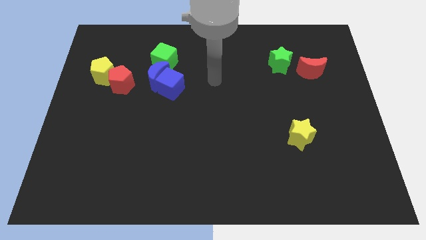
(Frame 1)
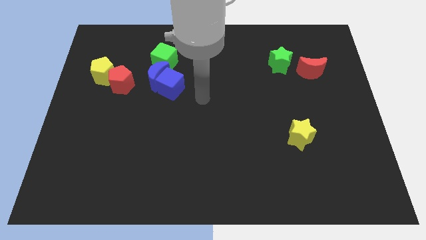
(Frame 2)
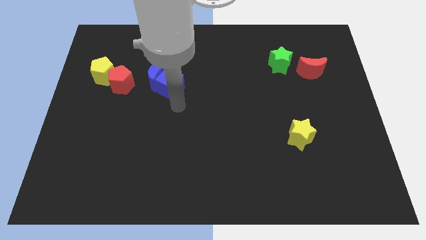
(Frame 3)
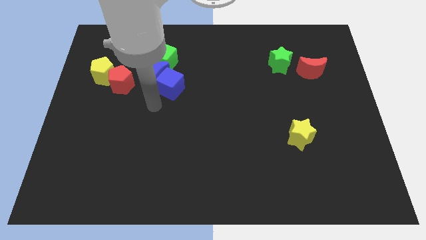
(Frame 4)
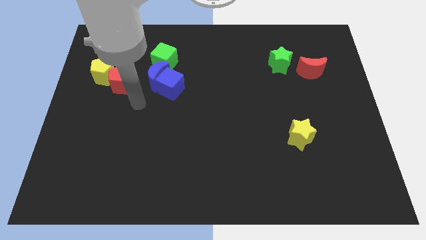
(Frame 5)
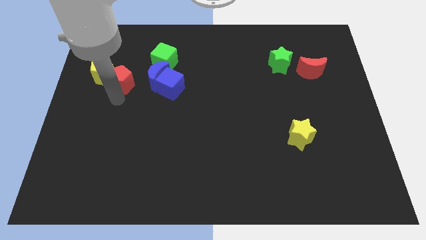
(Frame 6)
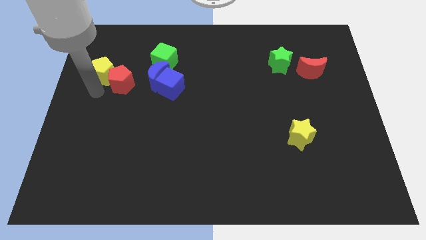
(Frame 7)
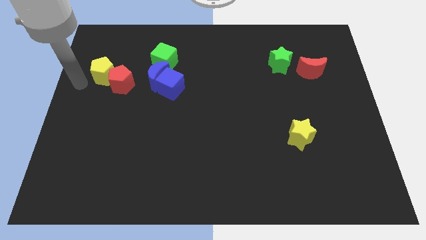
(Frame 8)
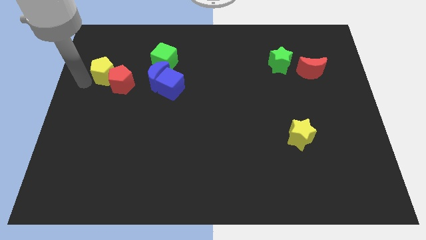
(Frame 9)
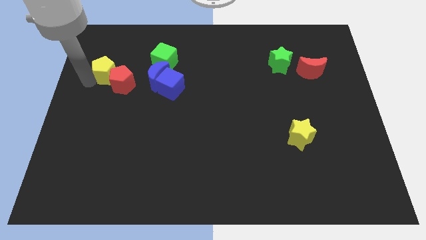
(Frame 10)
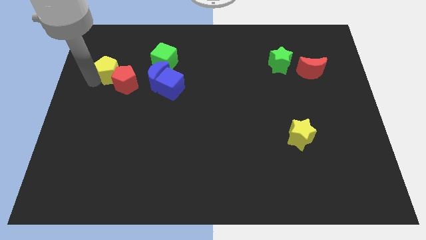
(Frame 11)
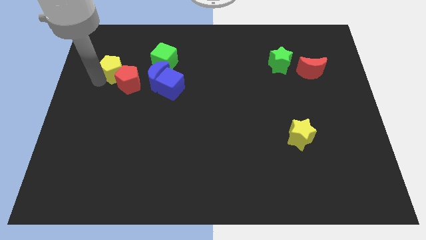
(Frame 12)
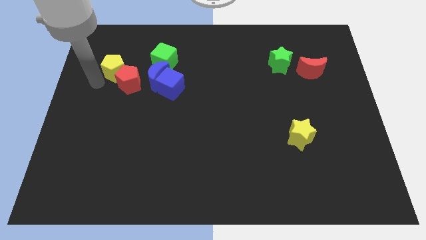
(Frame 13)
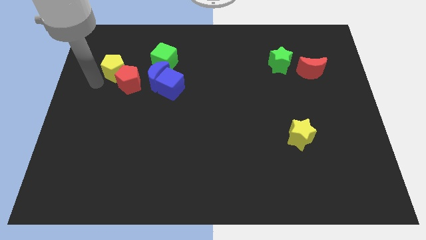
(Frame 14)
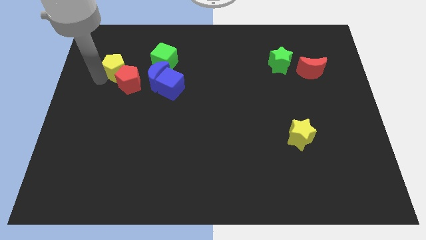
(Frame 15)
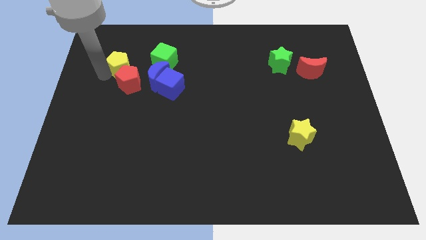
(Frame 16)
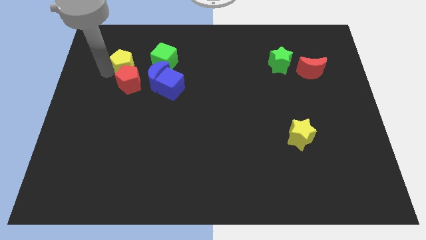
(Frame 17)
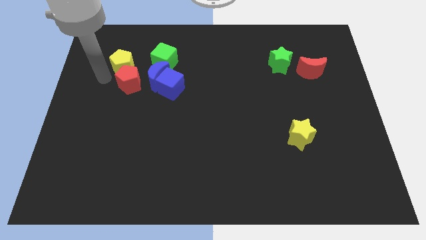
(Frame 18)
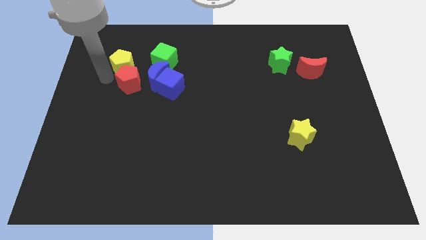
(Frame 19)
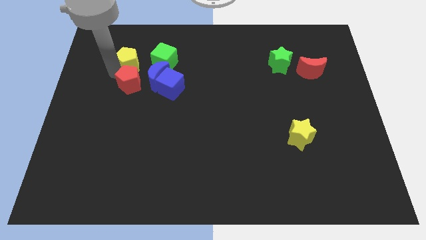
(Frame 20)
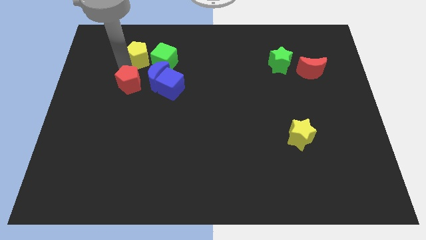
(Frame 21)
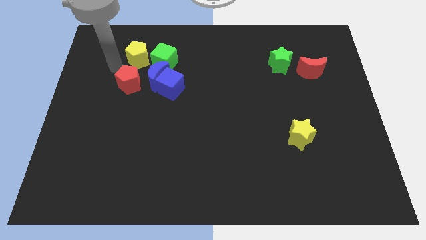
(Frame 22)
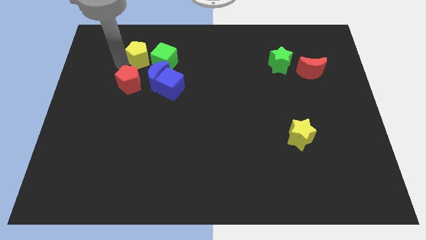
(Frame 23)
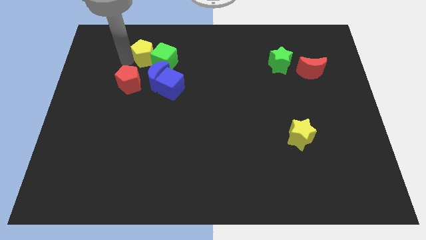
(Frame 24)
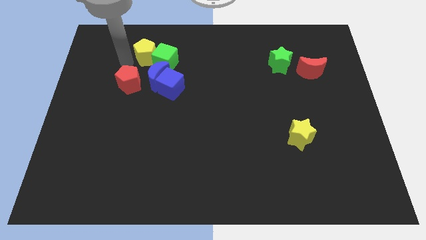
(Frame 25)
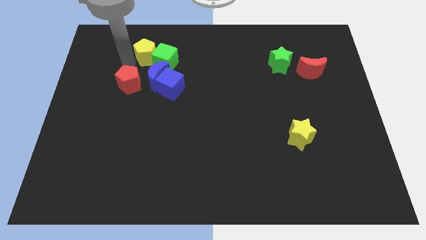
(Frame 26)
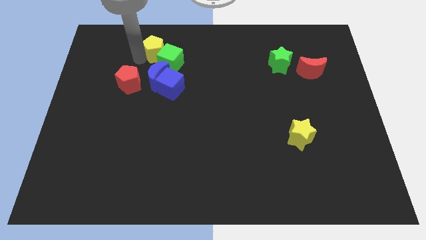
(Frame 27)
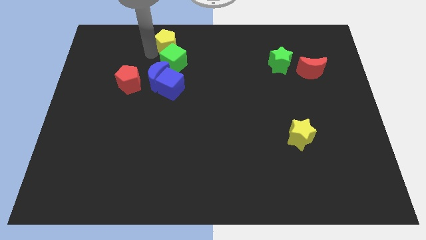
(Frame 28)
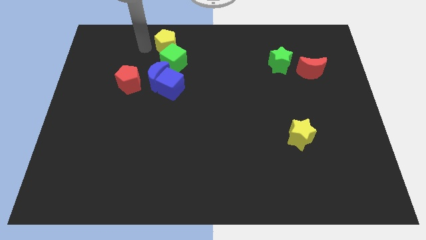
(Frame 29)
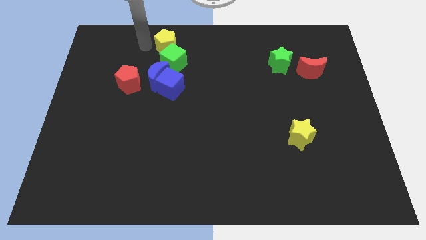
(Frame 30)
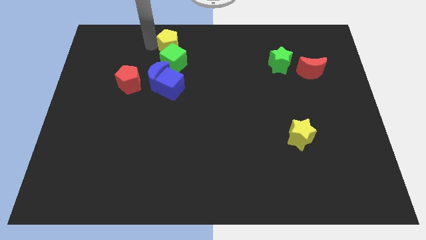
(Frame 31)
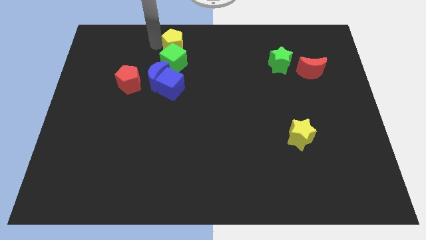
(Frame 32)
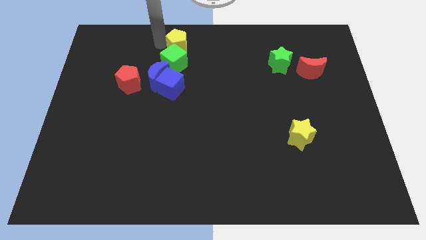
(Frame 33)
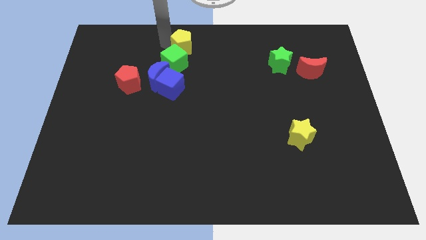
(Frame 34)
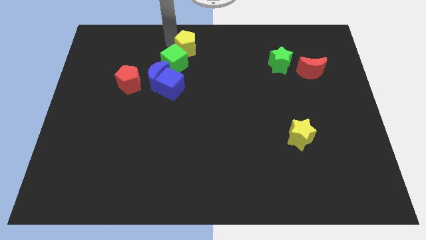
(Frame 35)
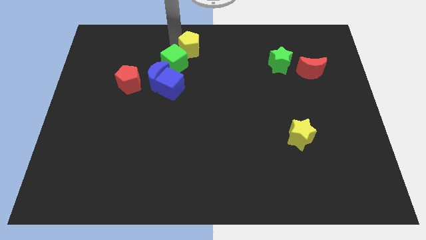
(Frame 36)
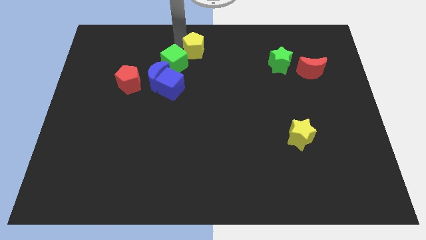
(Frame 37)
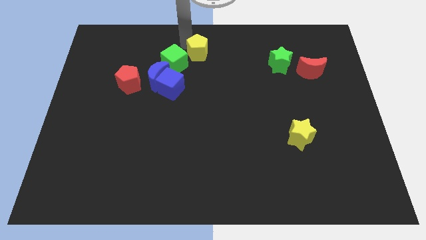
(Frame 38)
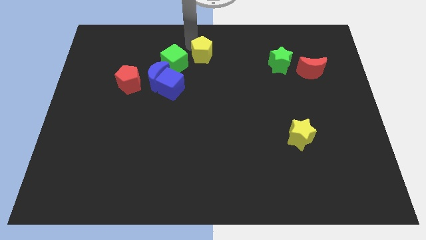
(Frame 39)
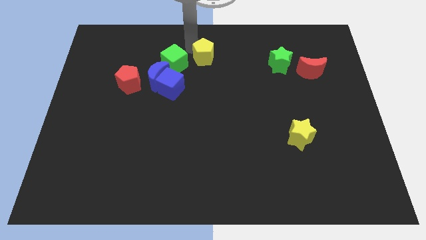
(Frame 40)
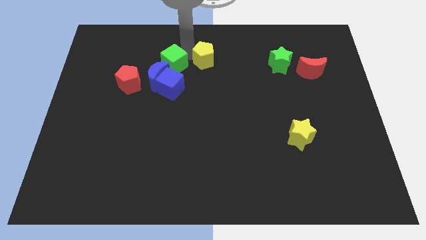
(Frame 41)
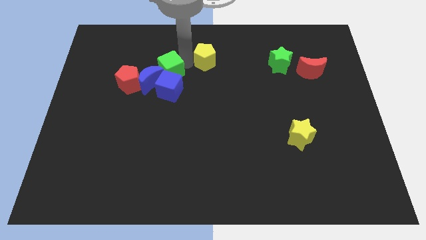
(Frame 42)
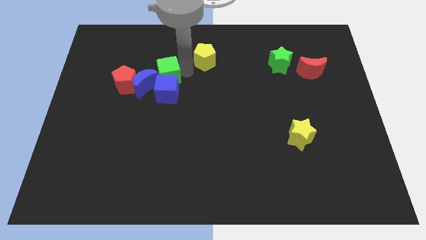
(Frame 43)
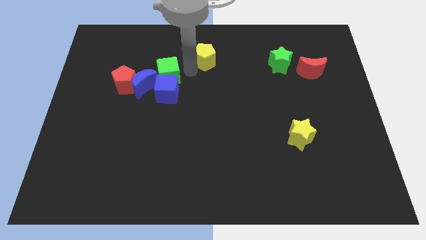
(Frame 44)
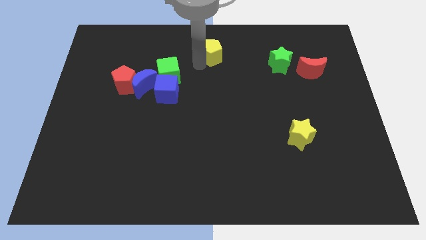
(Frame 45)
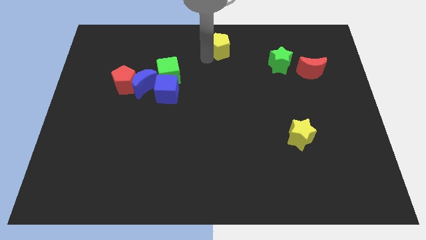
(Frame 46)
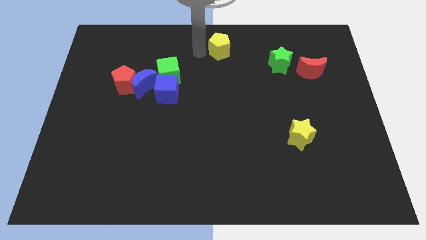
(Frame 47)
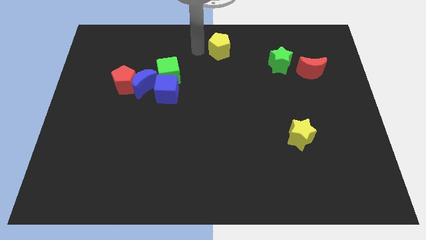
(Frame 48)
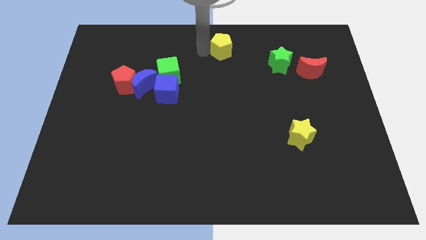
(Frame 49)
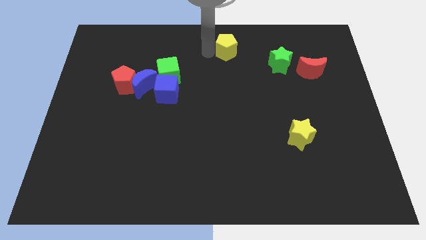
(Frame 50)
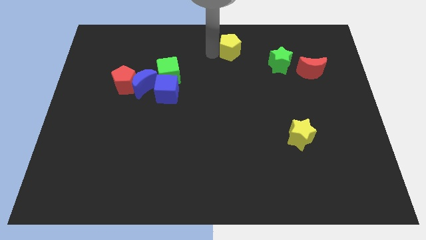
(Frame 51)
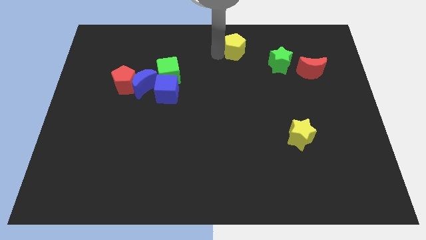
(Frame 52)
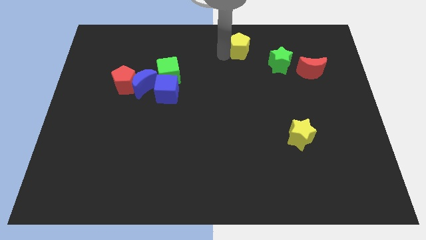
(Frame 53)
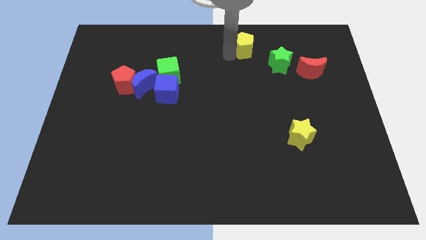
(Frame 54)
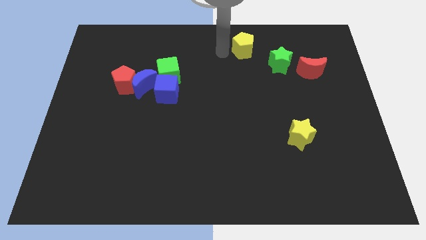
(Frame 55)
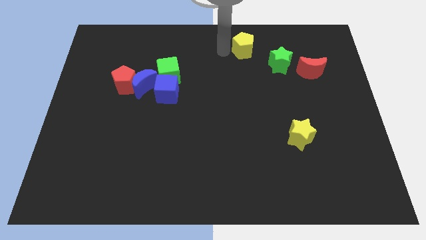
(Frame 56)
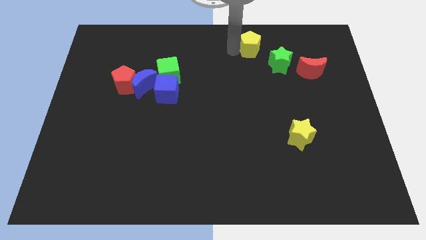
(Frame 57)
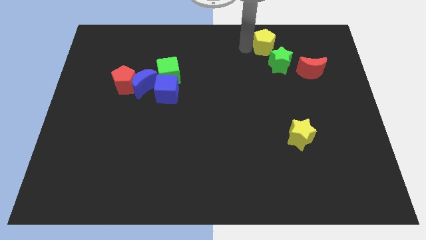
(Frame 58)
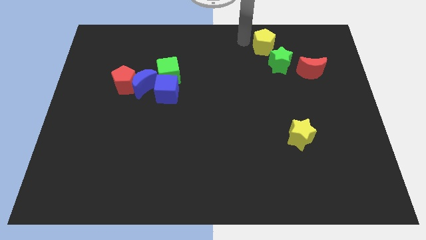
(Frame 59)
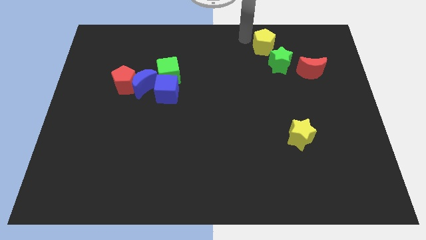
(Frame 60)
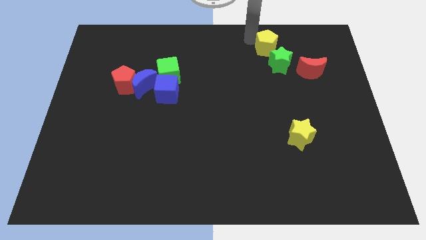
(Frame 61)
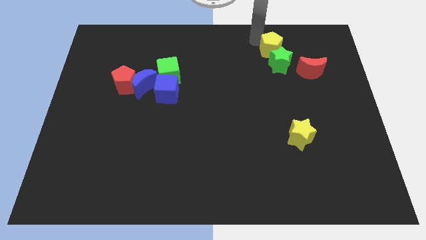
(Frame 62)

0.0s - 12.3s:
move the yellow pentagon to the top left of the red moon
